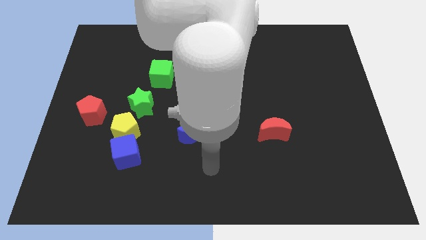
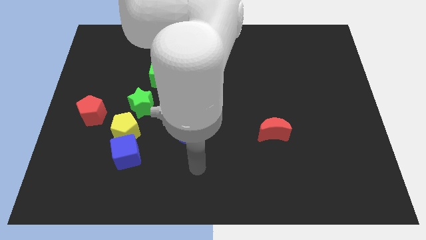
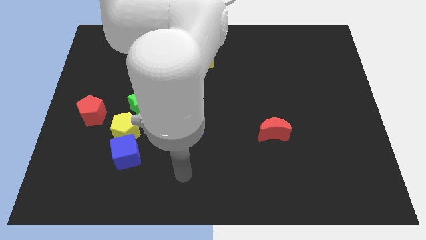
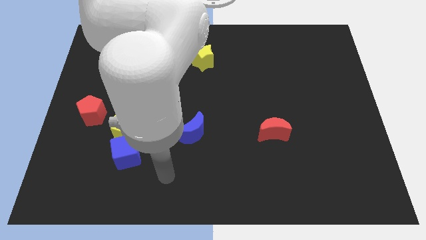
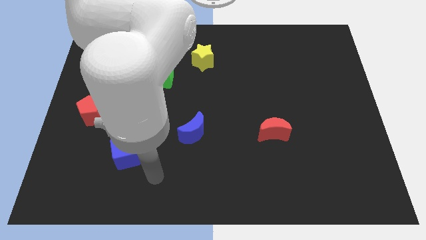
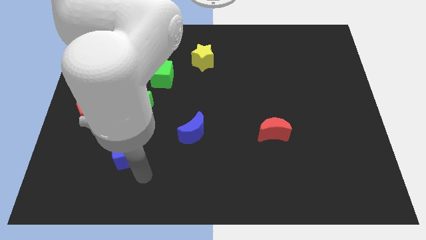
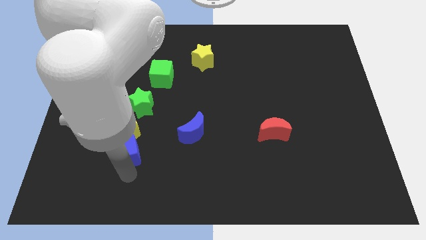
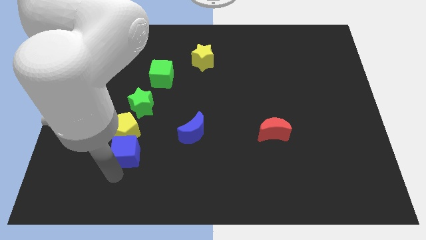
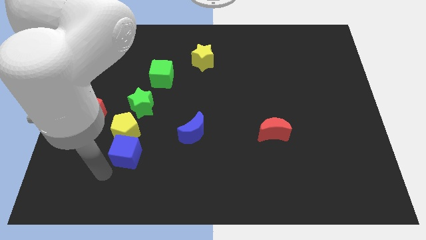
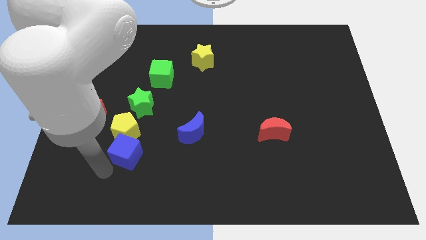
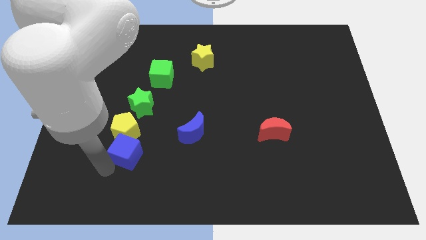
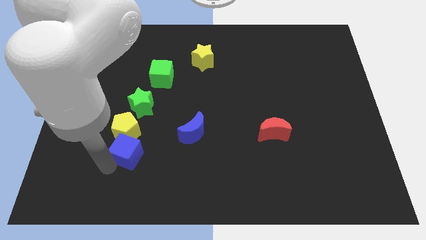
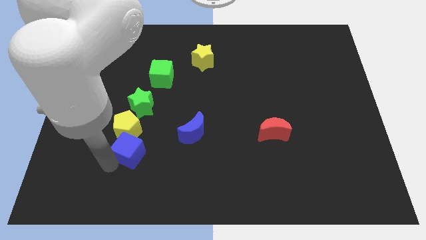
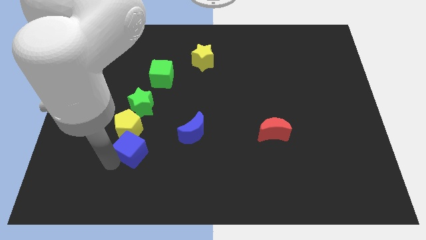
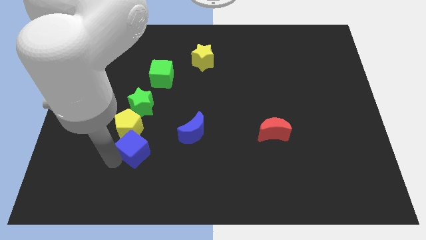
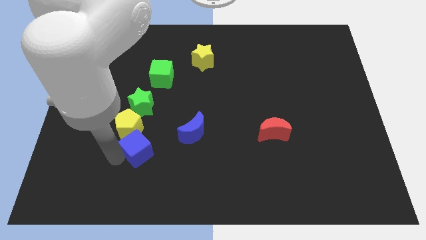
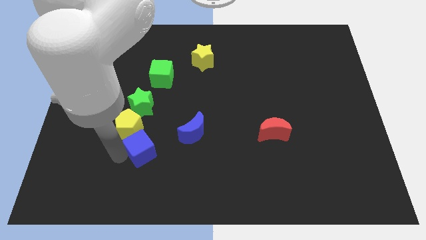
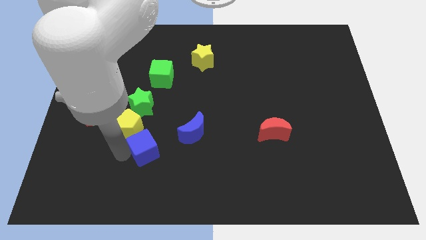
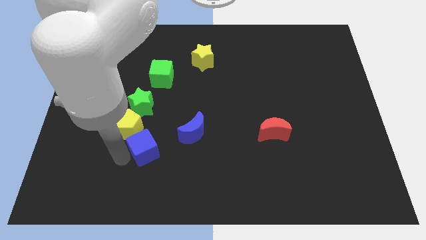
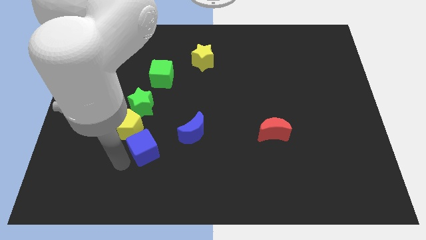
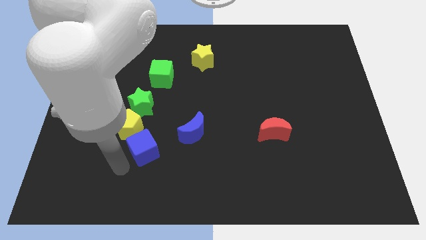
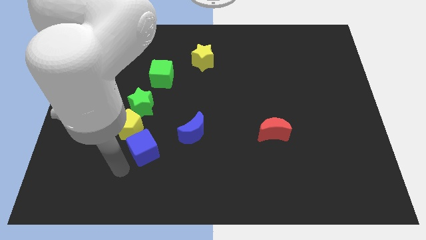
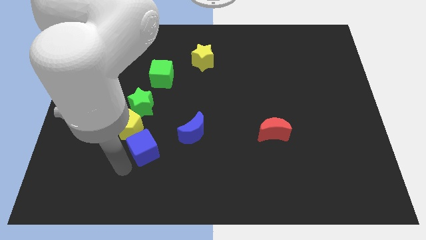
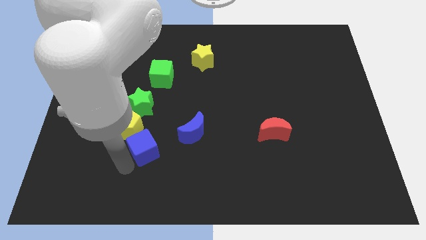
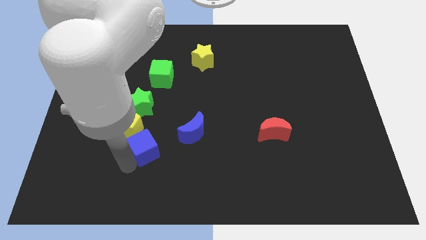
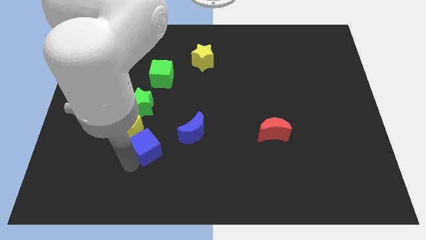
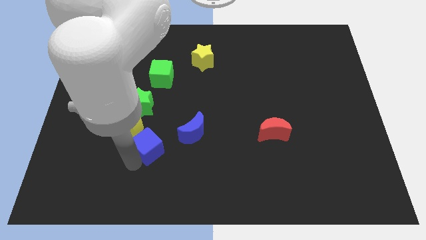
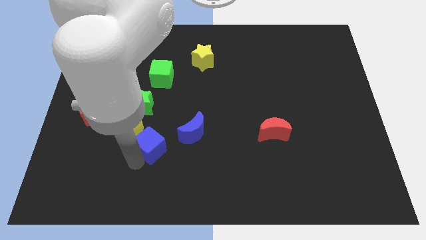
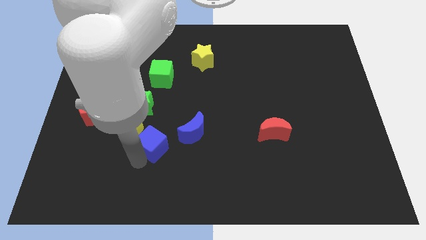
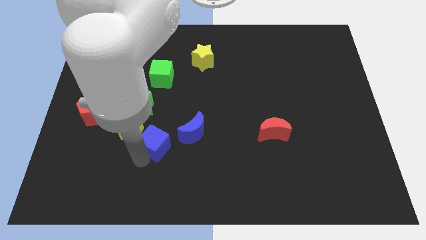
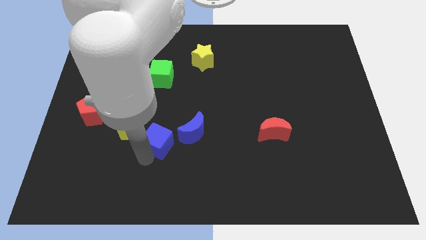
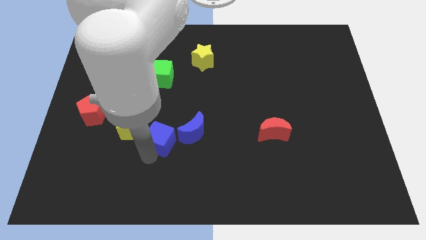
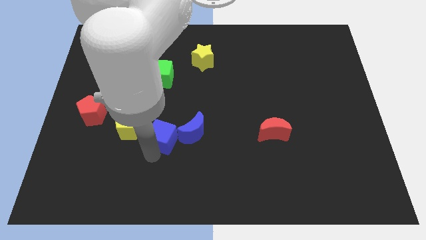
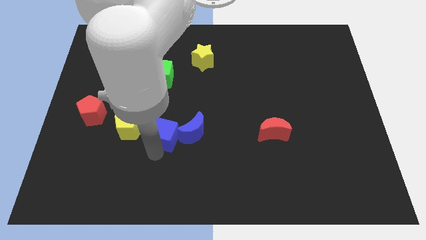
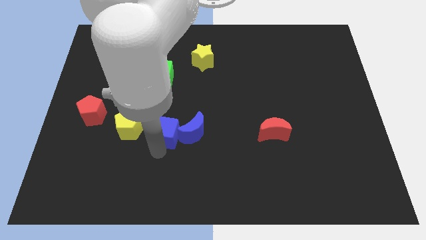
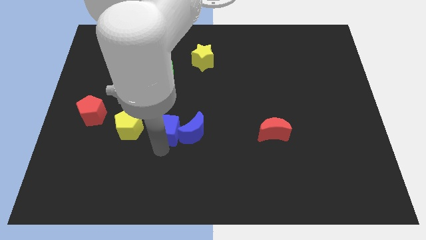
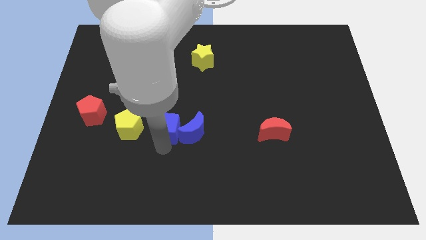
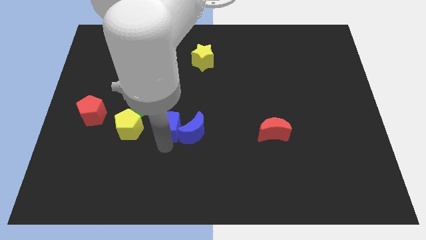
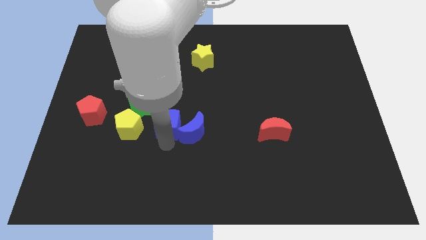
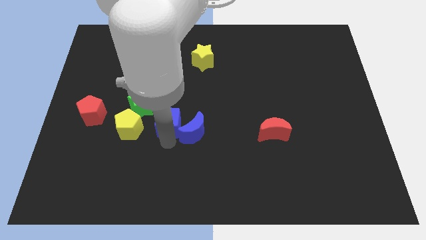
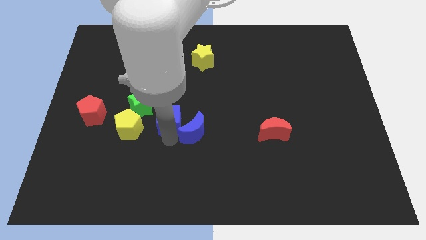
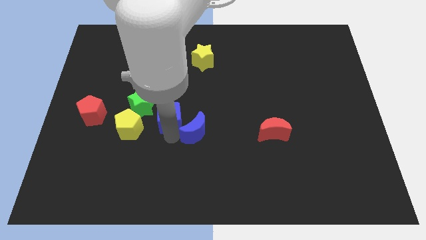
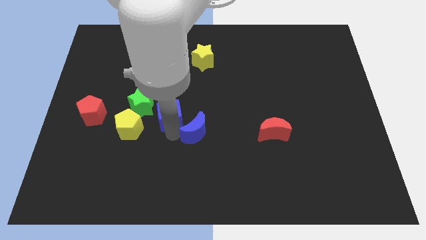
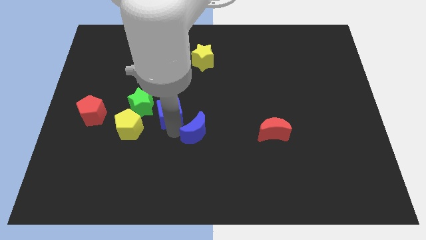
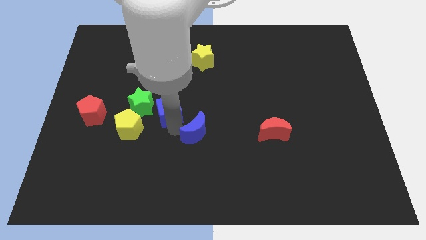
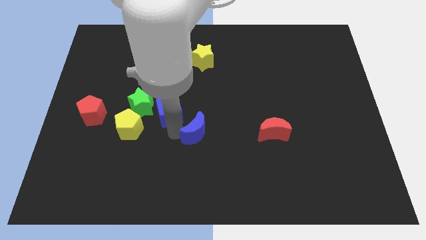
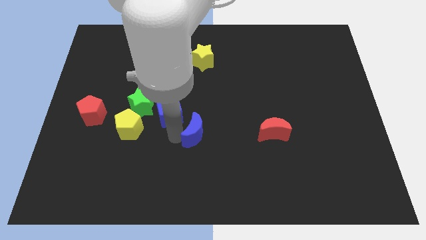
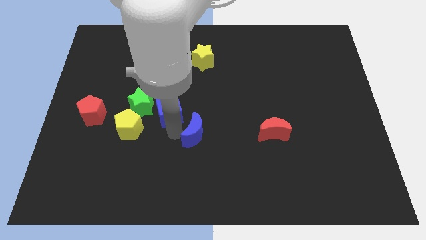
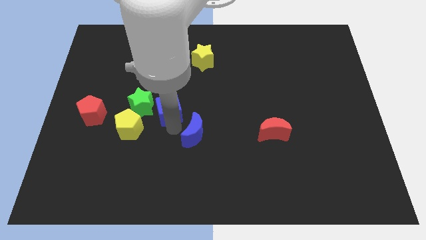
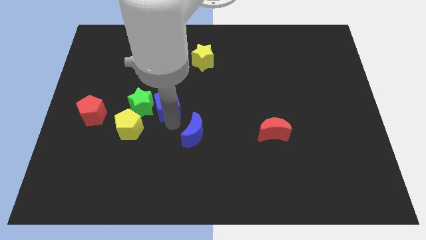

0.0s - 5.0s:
move the blue cube to the top right of the green star

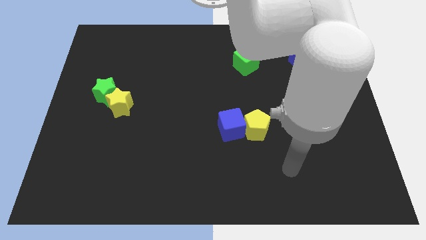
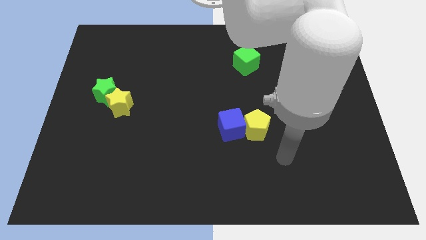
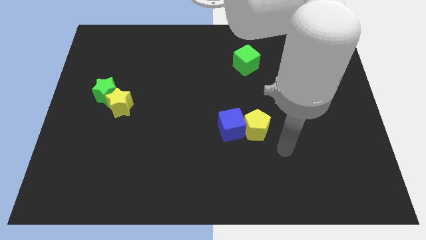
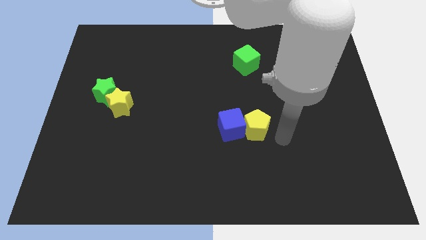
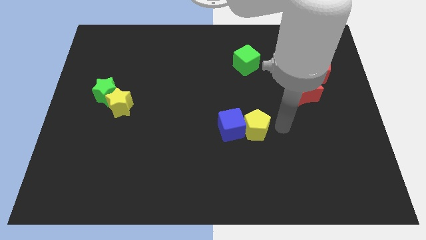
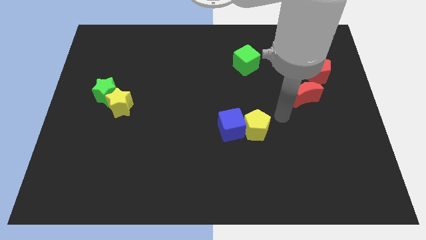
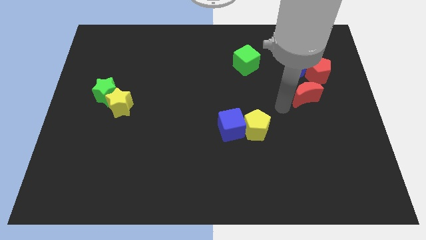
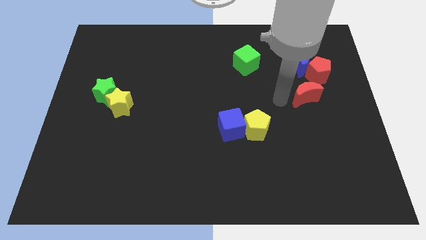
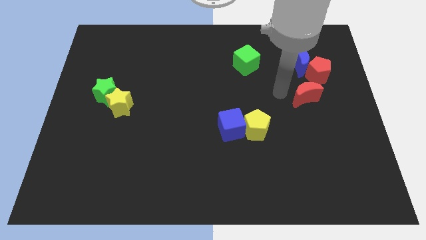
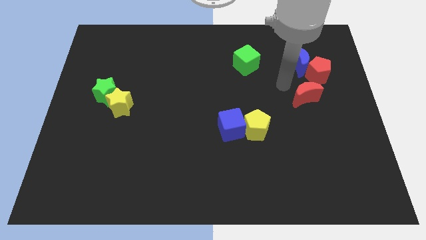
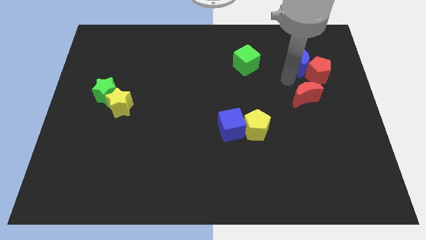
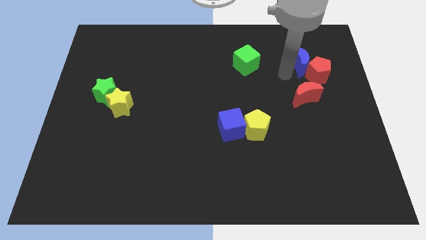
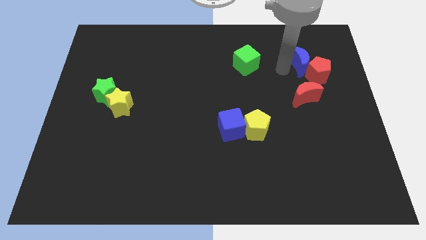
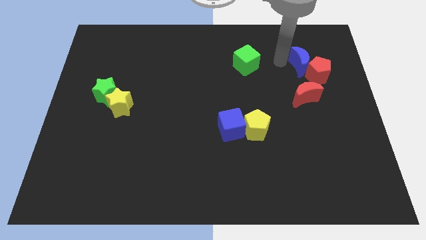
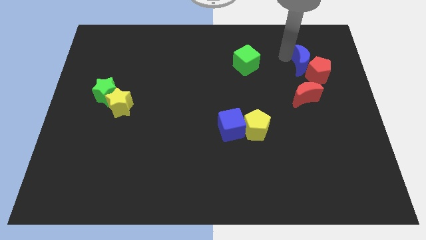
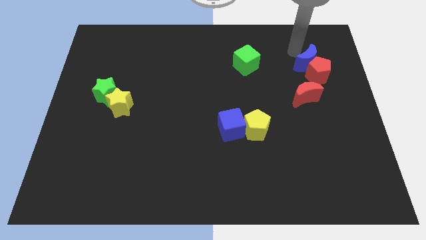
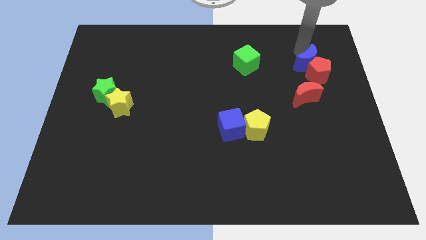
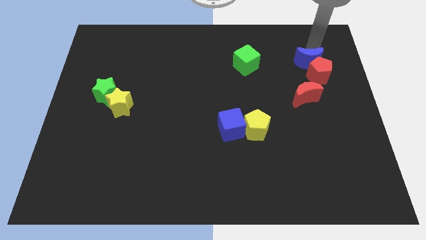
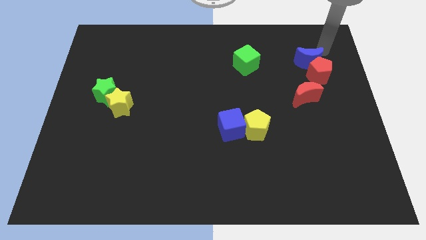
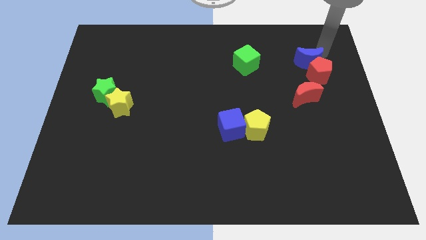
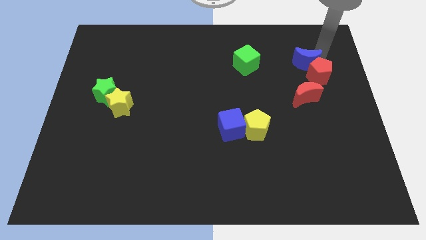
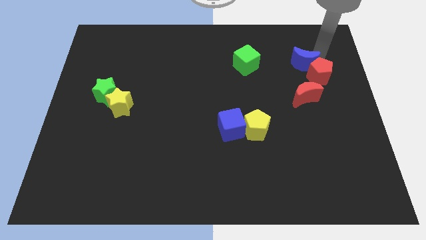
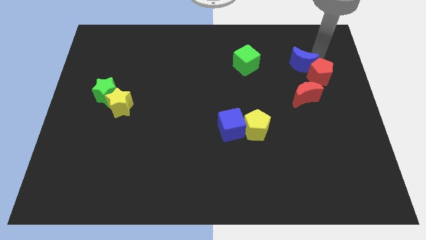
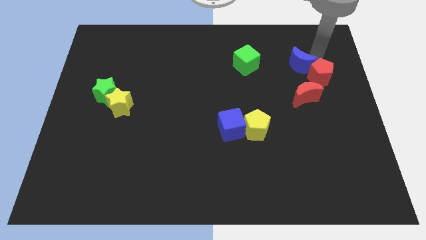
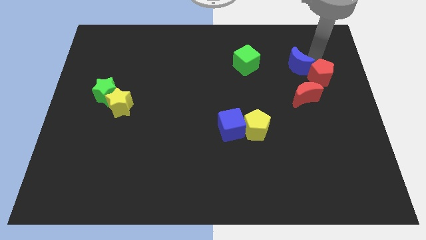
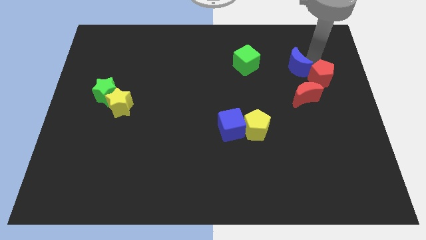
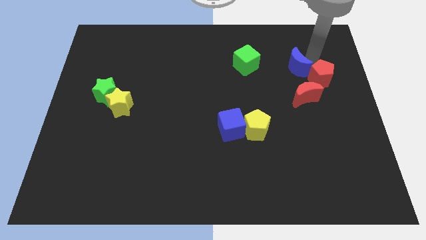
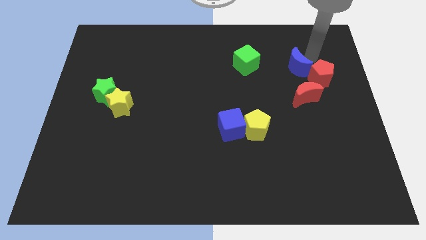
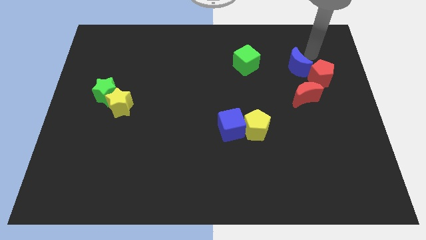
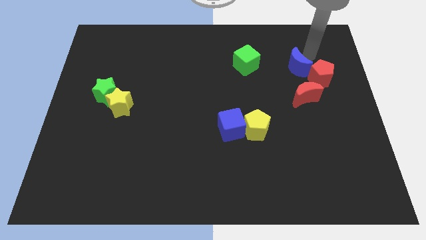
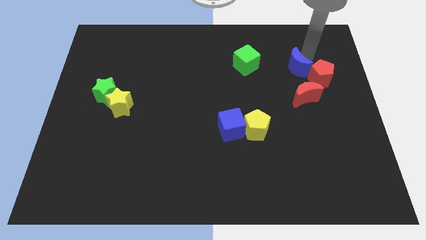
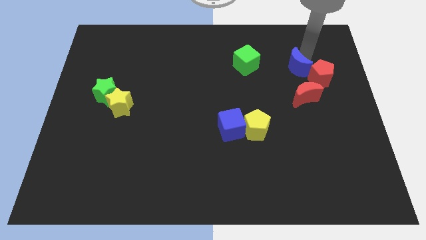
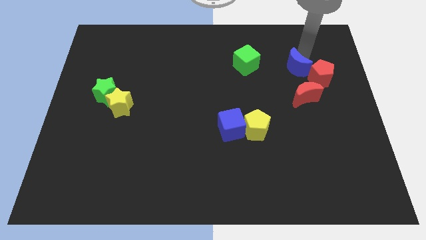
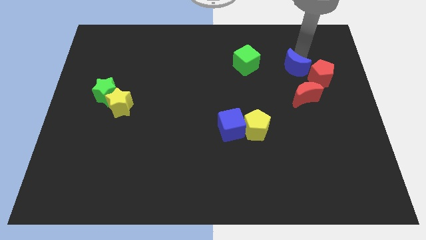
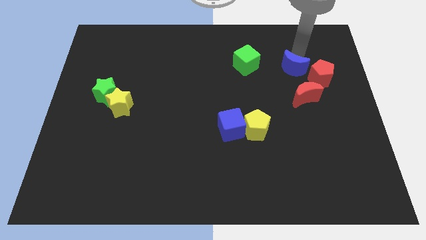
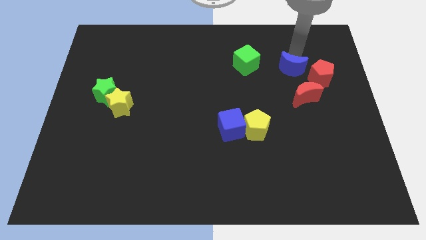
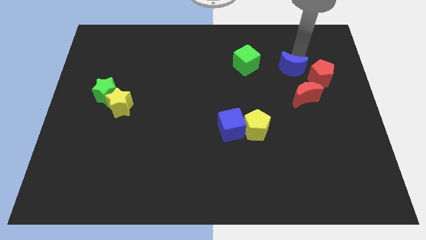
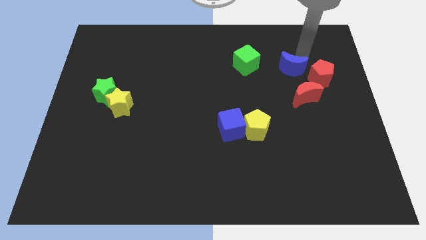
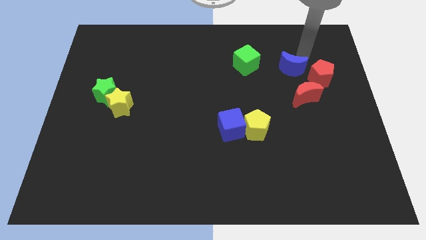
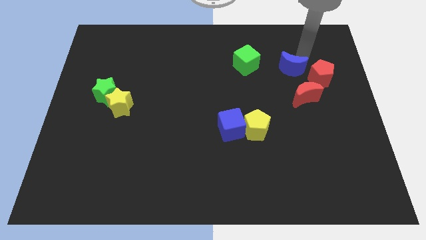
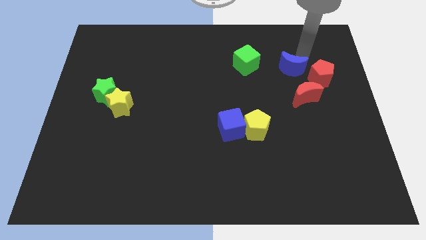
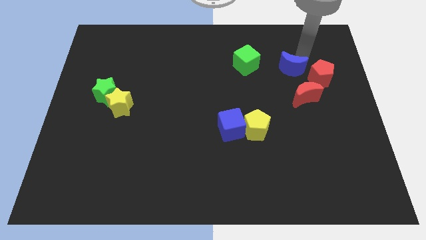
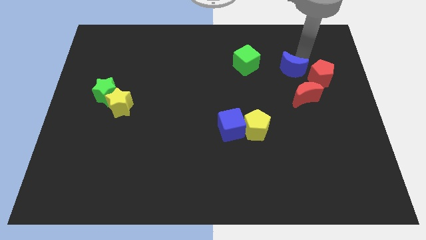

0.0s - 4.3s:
put the blue moon to the top left of the red moon
